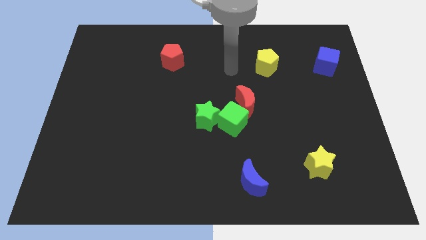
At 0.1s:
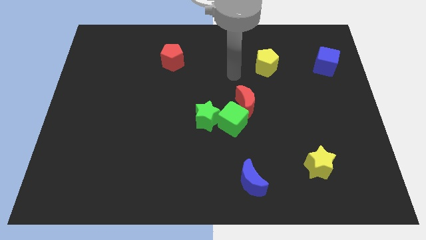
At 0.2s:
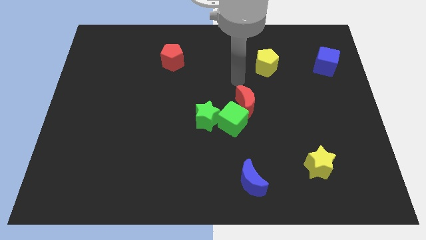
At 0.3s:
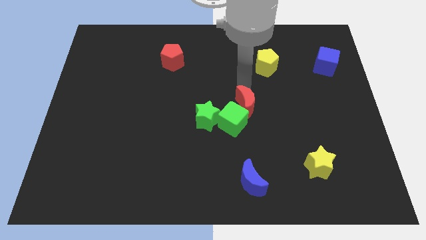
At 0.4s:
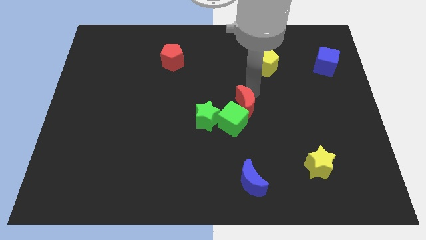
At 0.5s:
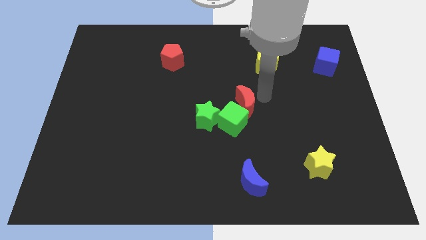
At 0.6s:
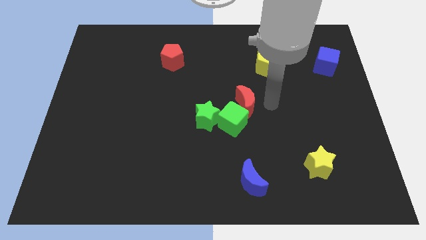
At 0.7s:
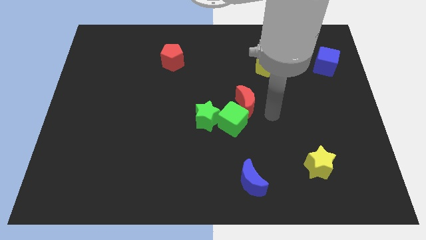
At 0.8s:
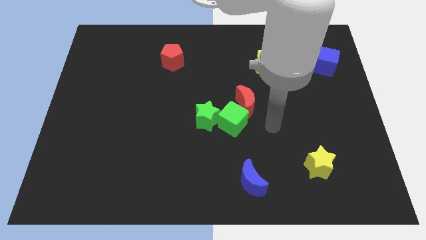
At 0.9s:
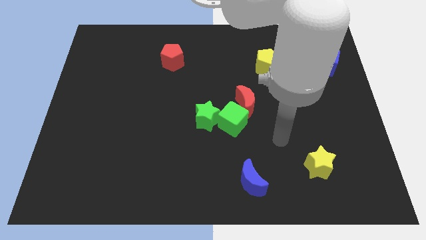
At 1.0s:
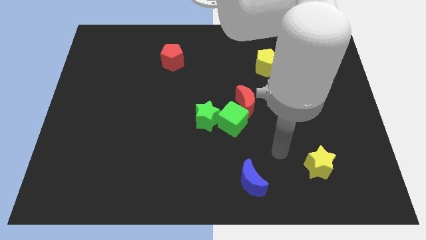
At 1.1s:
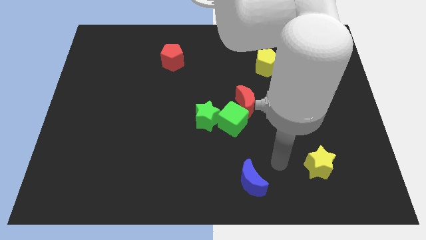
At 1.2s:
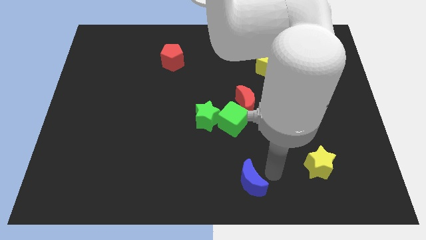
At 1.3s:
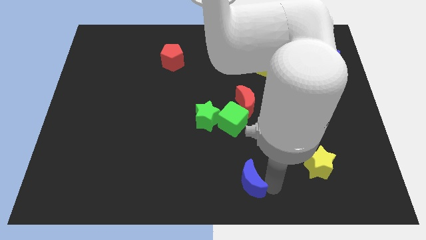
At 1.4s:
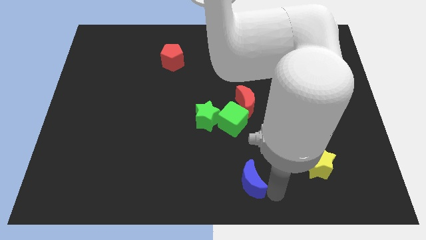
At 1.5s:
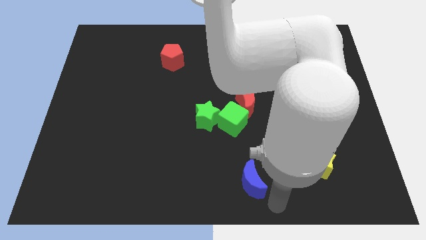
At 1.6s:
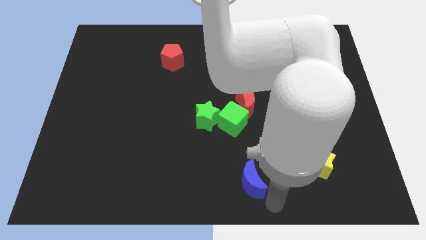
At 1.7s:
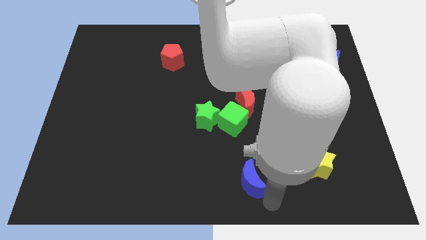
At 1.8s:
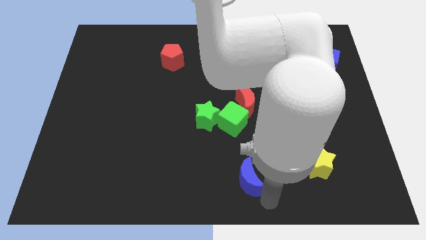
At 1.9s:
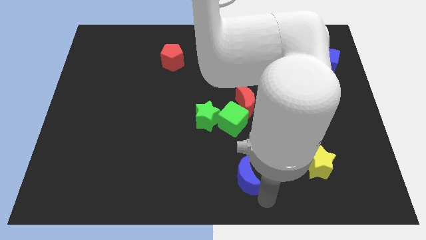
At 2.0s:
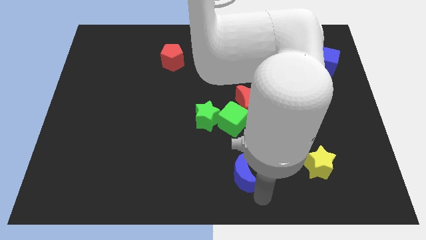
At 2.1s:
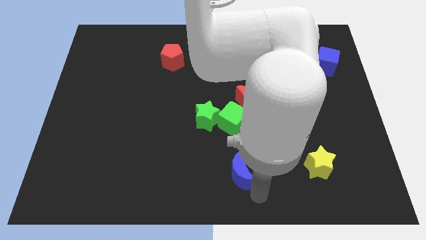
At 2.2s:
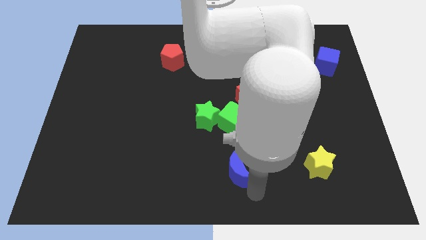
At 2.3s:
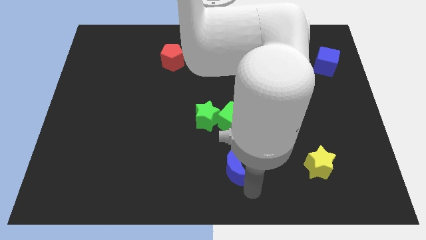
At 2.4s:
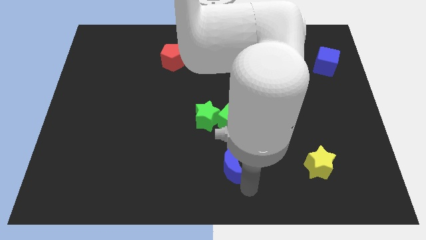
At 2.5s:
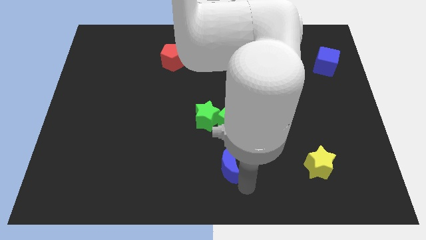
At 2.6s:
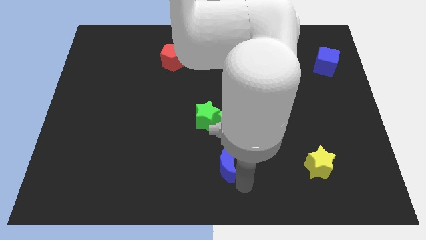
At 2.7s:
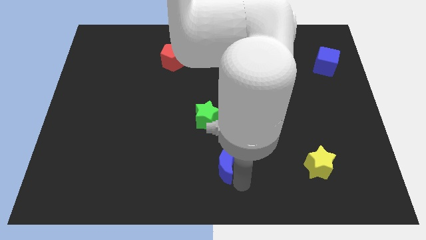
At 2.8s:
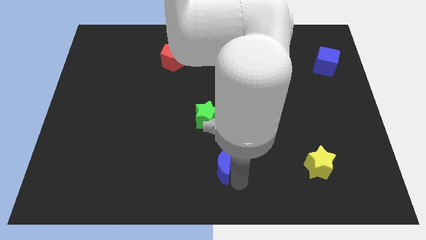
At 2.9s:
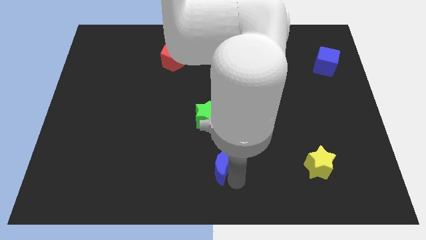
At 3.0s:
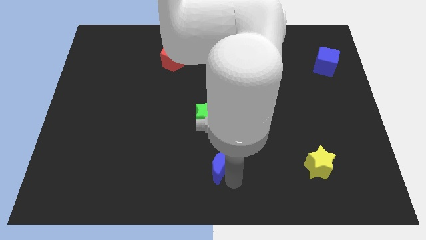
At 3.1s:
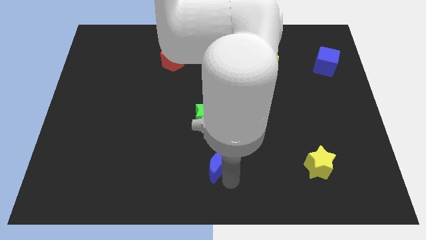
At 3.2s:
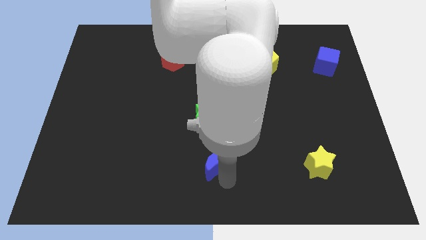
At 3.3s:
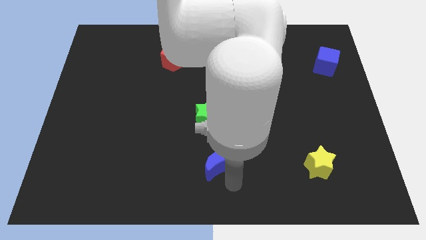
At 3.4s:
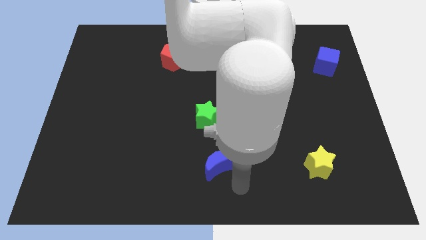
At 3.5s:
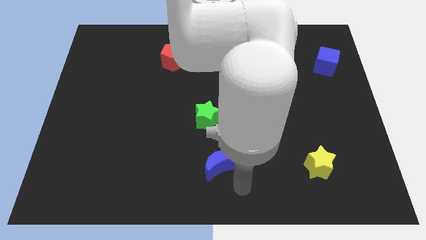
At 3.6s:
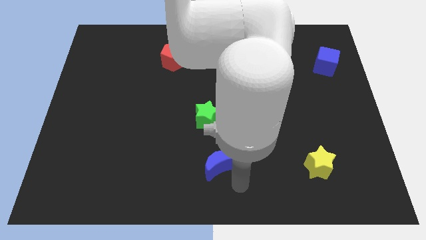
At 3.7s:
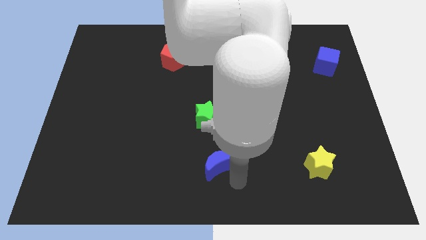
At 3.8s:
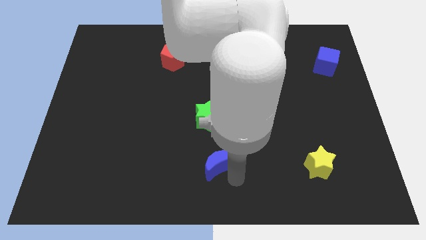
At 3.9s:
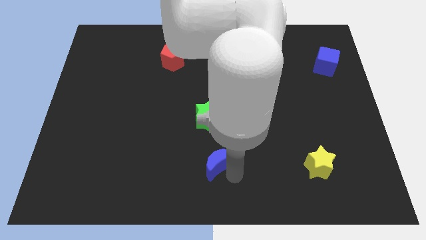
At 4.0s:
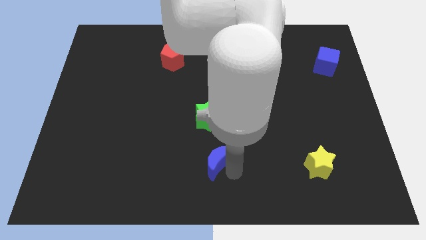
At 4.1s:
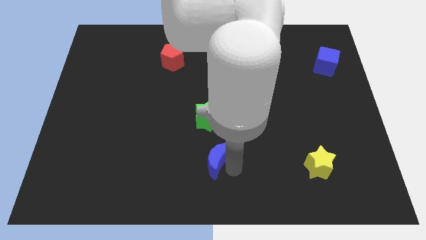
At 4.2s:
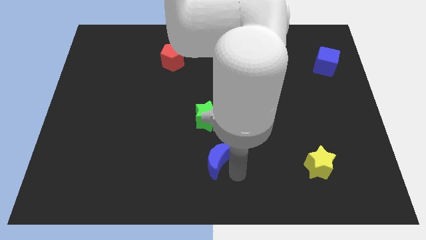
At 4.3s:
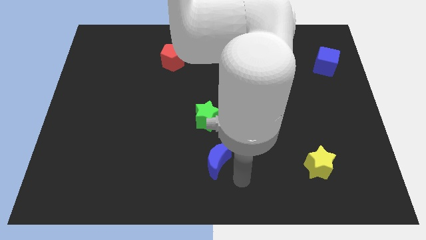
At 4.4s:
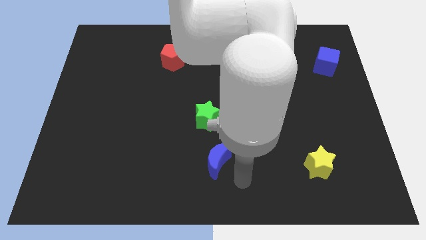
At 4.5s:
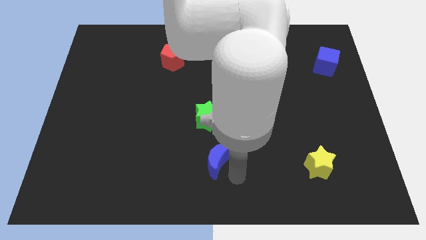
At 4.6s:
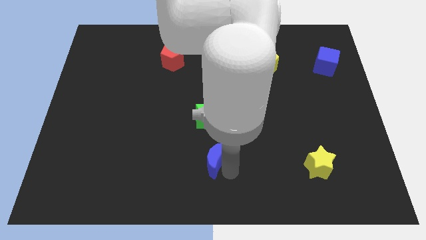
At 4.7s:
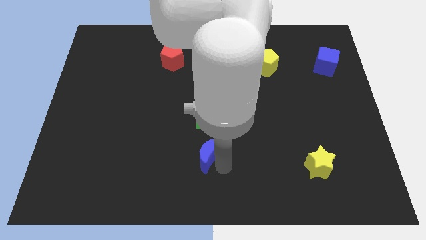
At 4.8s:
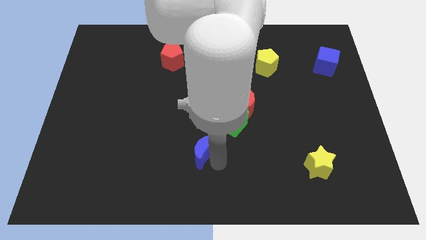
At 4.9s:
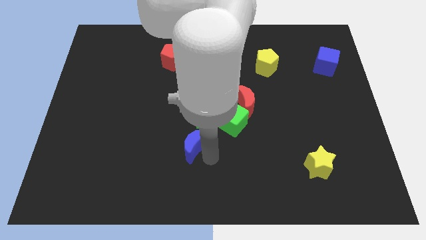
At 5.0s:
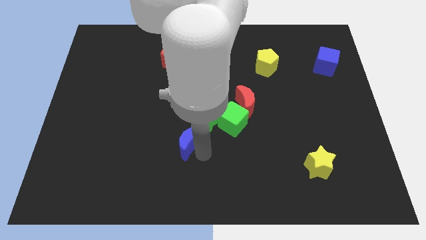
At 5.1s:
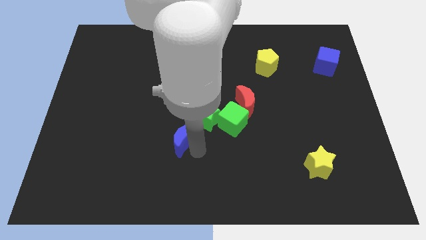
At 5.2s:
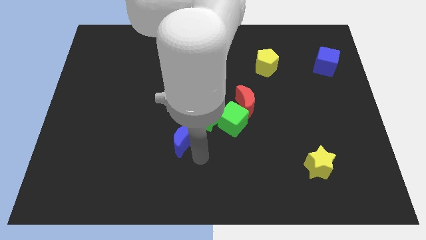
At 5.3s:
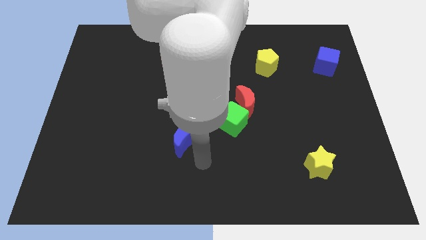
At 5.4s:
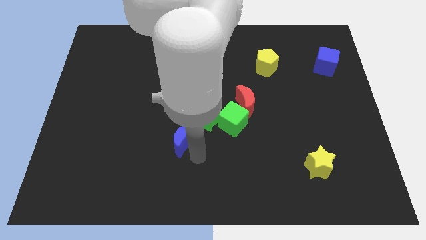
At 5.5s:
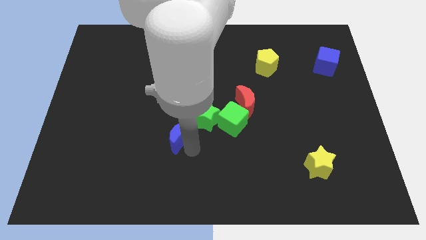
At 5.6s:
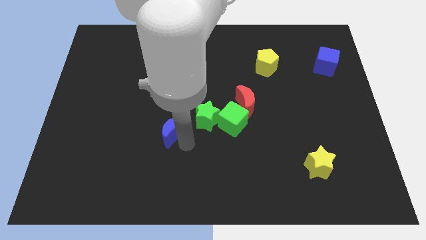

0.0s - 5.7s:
slide the blue moon up and left

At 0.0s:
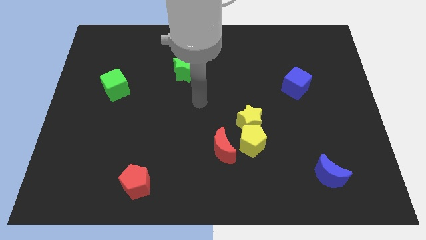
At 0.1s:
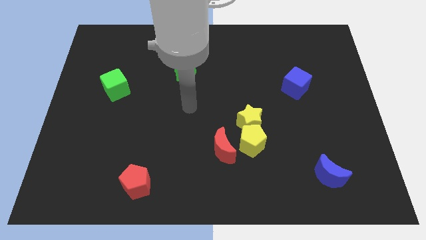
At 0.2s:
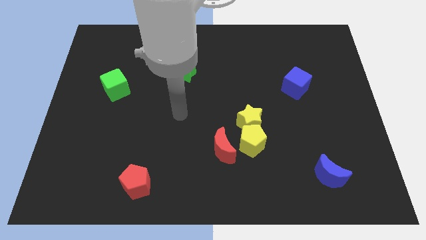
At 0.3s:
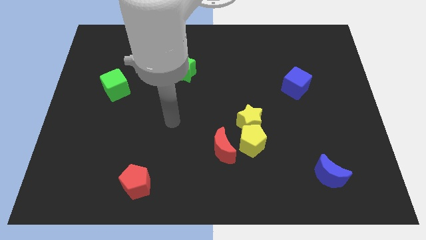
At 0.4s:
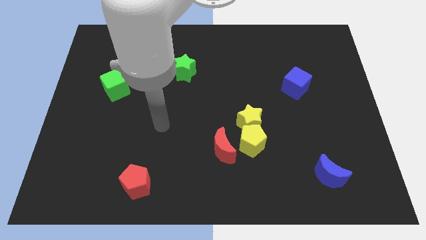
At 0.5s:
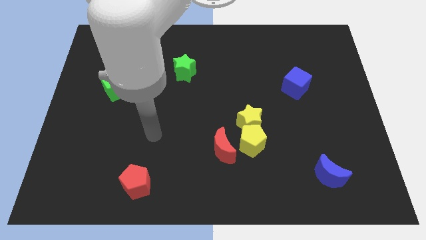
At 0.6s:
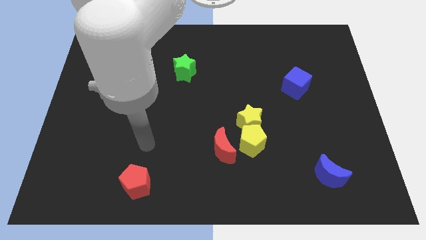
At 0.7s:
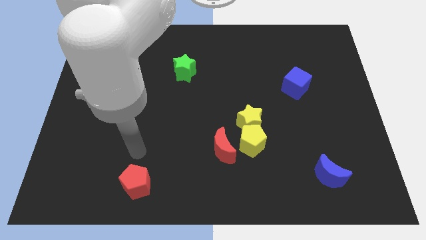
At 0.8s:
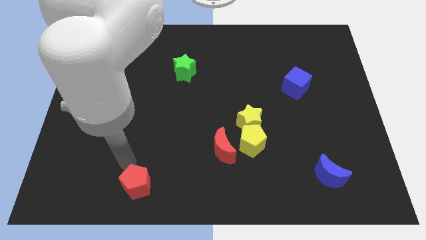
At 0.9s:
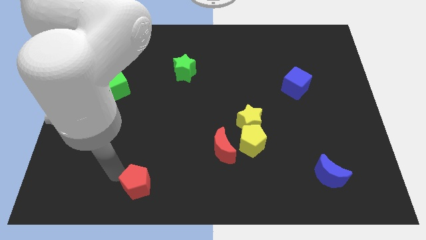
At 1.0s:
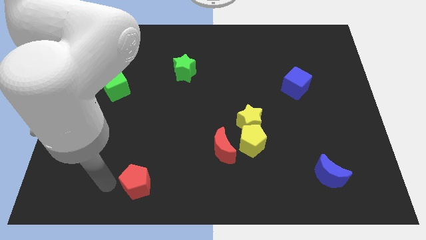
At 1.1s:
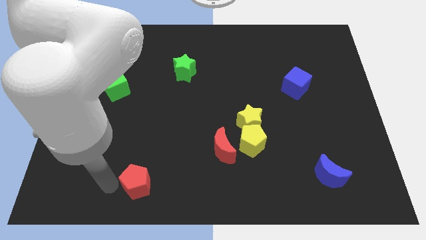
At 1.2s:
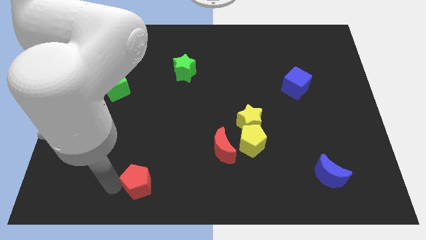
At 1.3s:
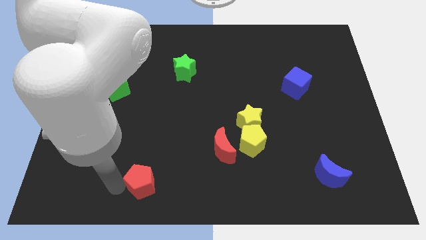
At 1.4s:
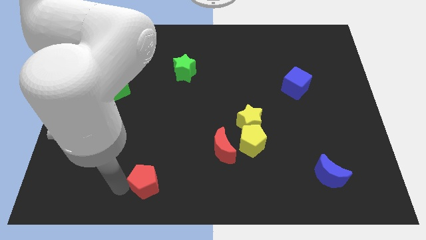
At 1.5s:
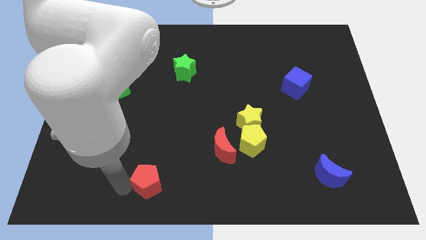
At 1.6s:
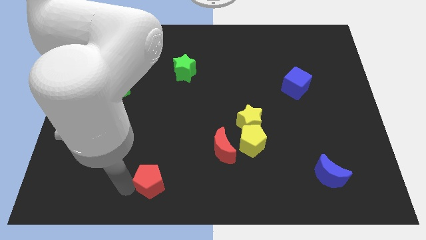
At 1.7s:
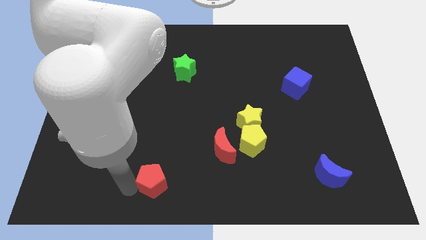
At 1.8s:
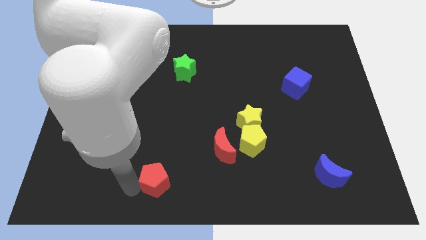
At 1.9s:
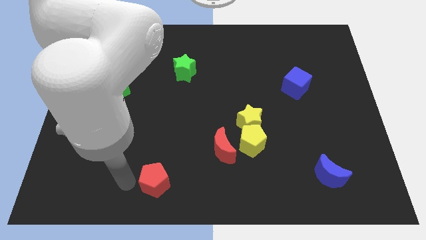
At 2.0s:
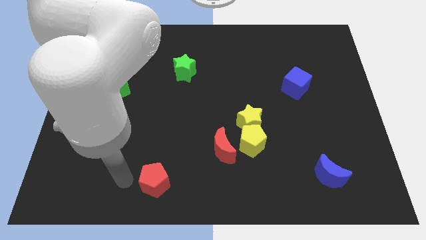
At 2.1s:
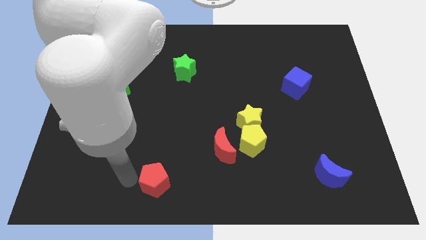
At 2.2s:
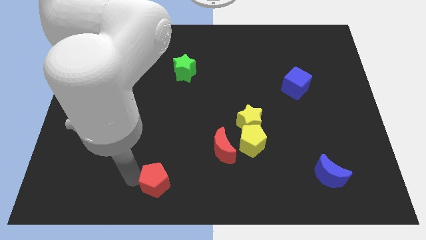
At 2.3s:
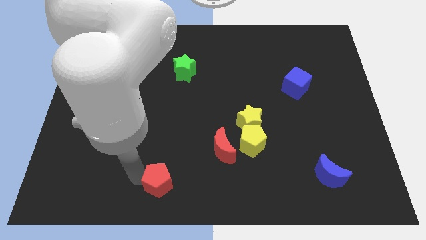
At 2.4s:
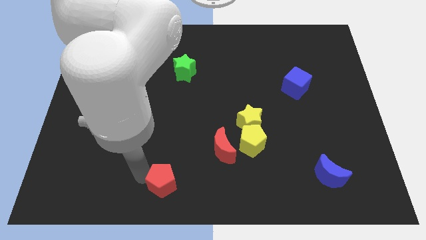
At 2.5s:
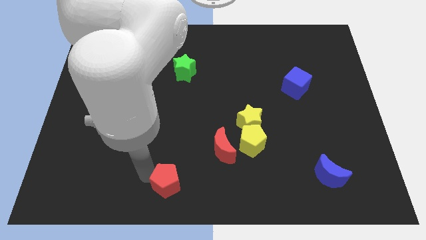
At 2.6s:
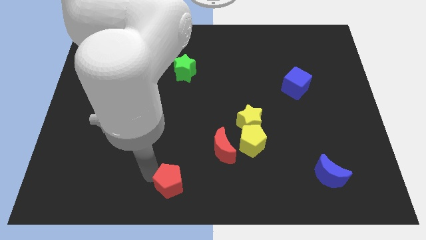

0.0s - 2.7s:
slightly slide the red pentagon to the right
